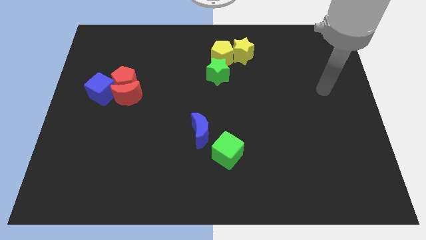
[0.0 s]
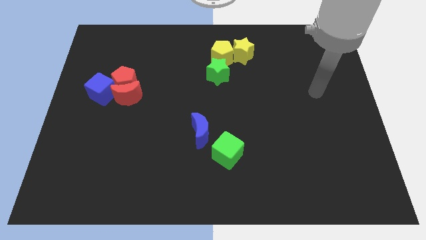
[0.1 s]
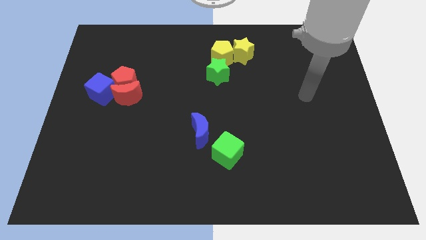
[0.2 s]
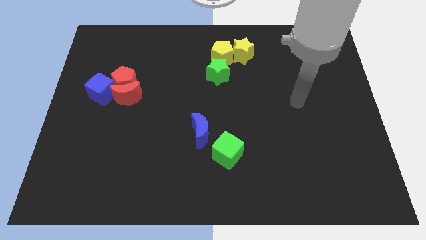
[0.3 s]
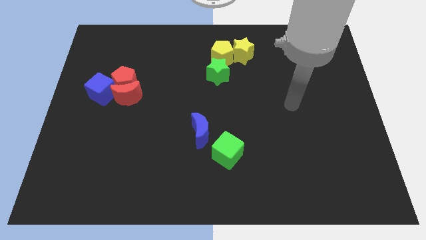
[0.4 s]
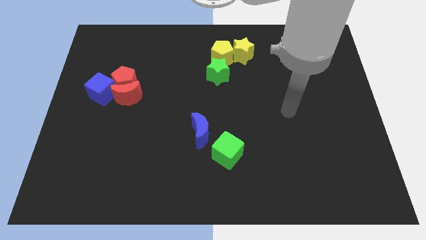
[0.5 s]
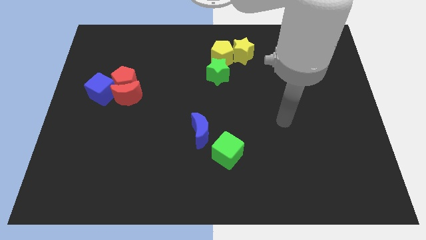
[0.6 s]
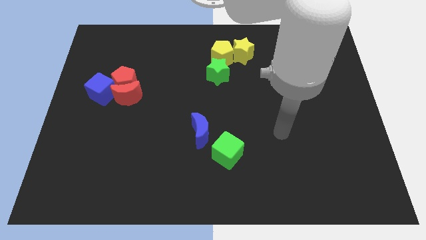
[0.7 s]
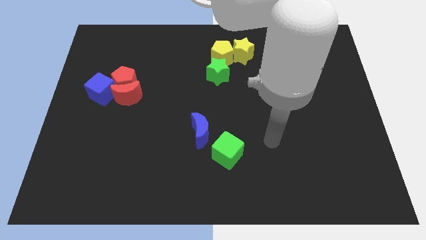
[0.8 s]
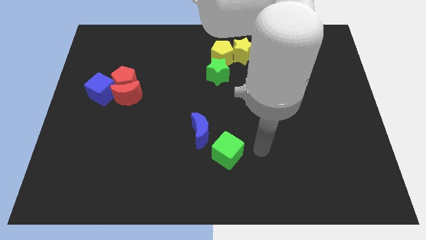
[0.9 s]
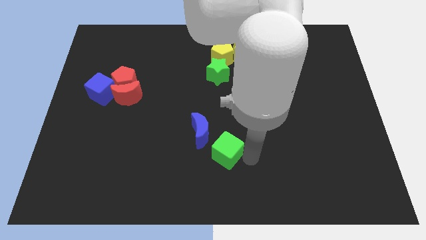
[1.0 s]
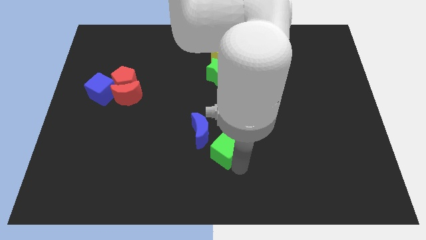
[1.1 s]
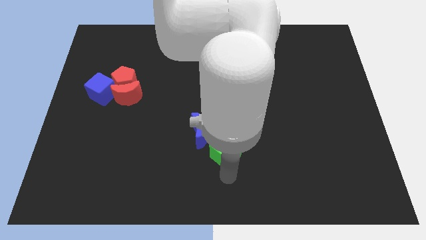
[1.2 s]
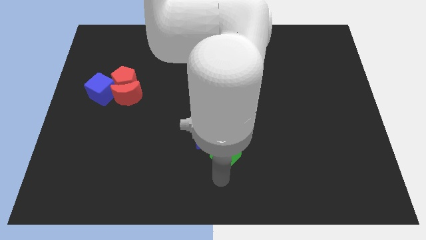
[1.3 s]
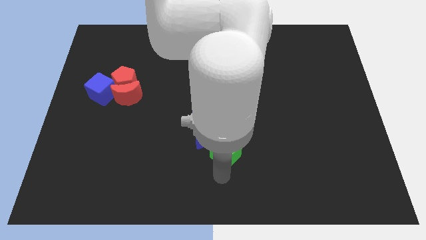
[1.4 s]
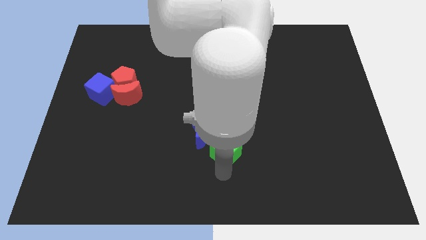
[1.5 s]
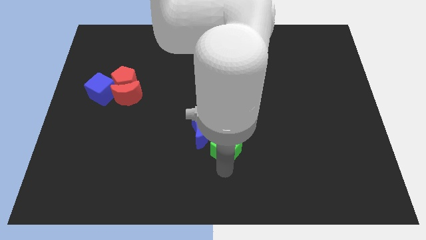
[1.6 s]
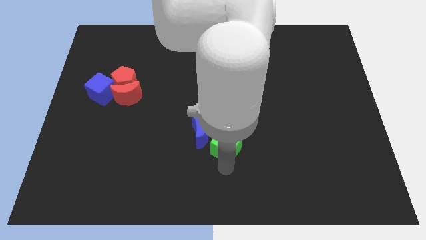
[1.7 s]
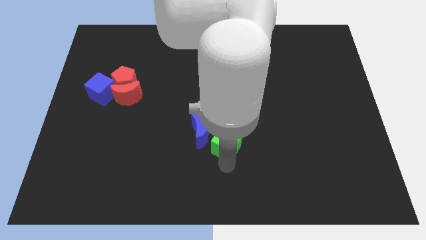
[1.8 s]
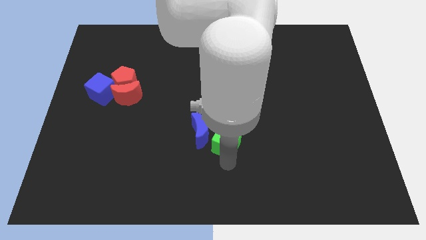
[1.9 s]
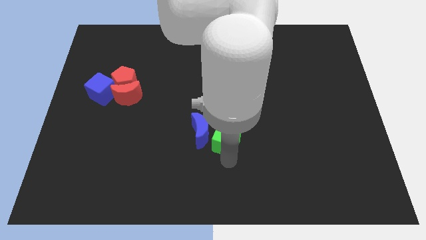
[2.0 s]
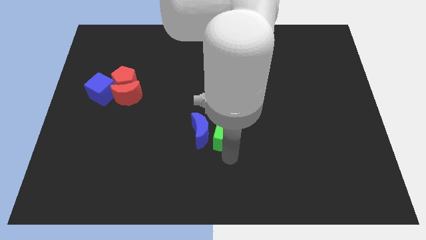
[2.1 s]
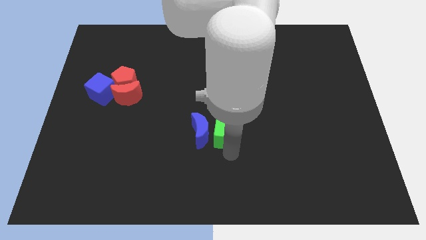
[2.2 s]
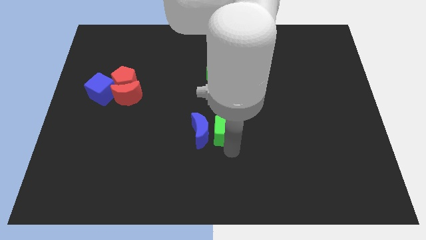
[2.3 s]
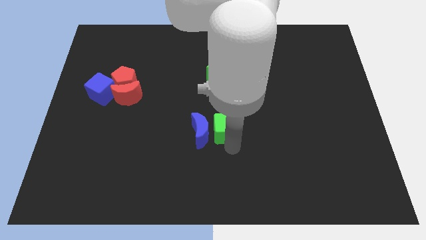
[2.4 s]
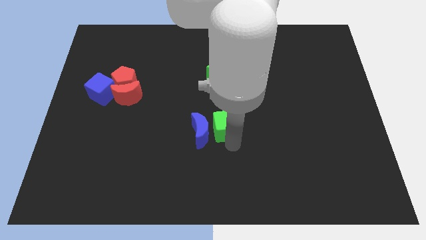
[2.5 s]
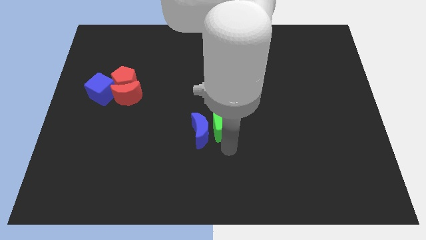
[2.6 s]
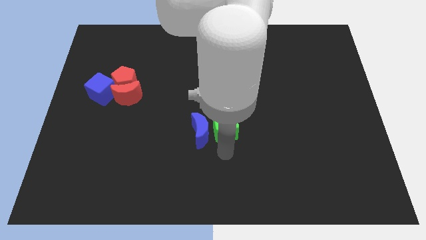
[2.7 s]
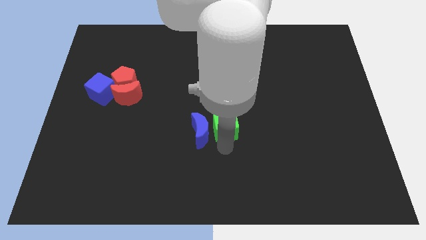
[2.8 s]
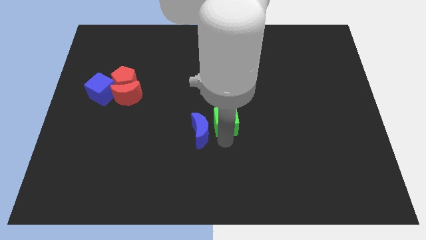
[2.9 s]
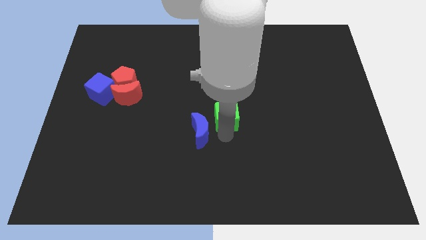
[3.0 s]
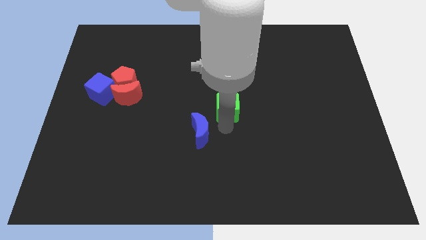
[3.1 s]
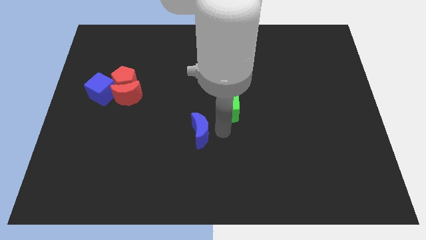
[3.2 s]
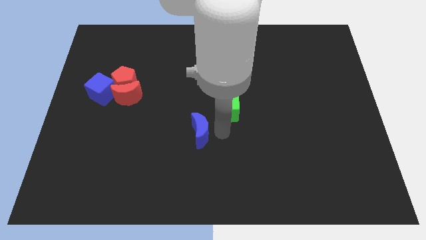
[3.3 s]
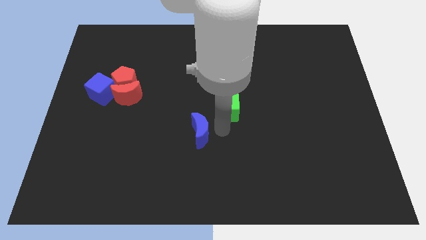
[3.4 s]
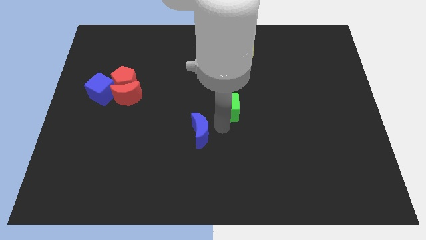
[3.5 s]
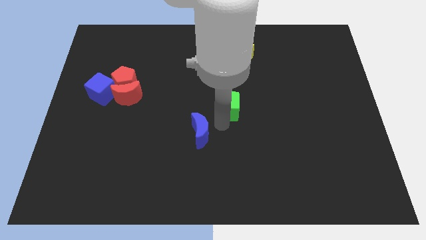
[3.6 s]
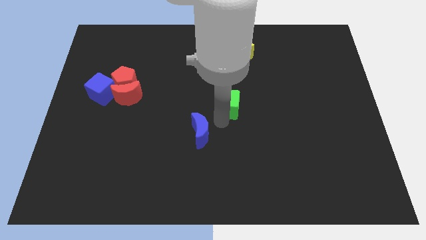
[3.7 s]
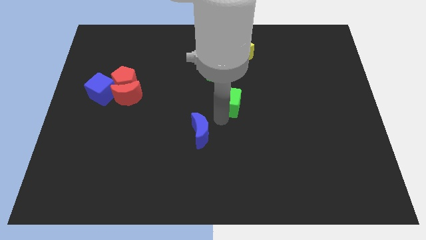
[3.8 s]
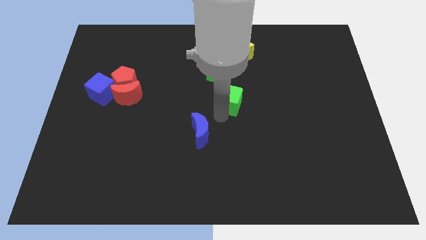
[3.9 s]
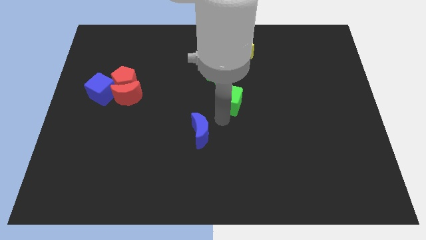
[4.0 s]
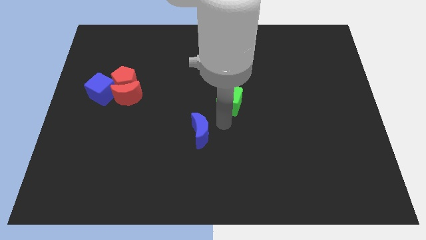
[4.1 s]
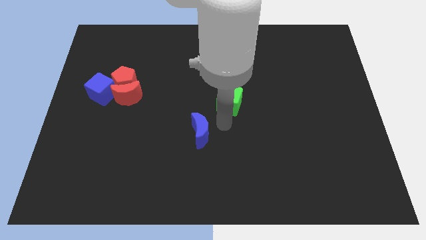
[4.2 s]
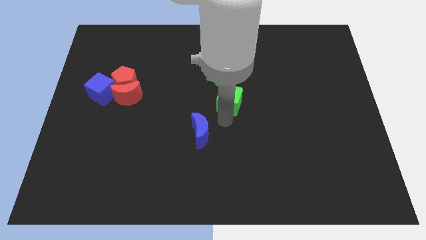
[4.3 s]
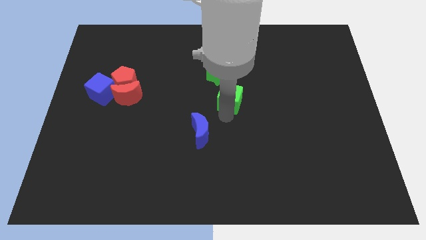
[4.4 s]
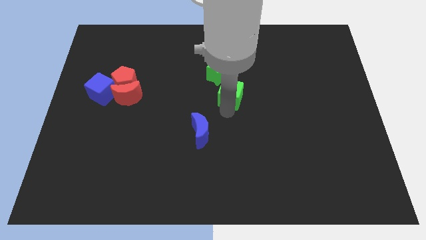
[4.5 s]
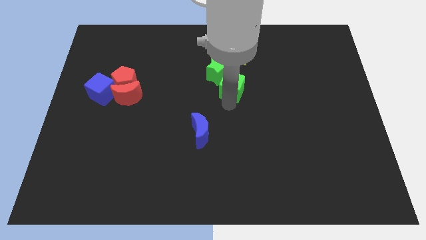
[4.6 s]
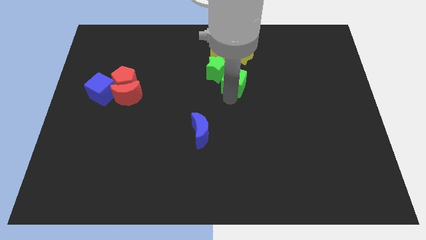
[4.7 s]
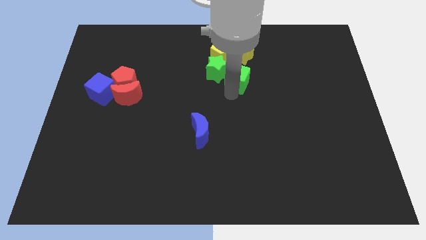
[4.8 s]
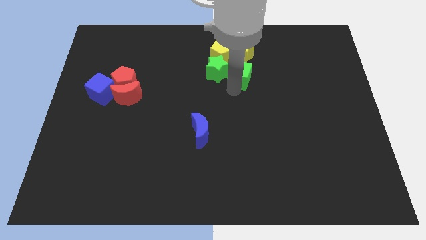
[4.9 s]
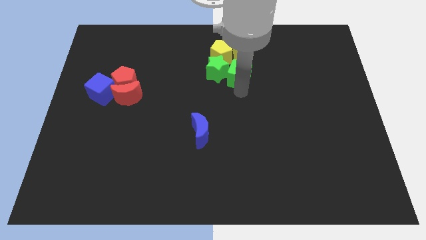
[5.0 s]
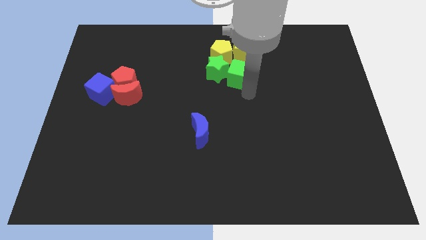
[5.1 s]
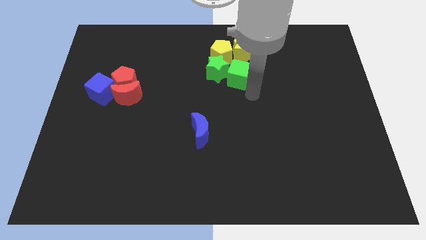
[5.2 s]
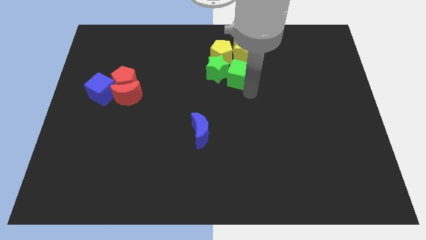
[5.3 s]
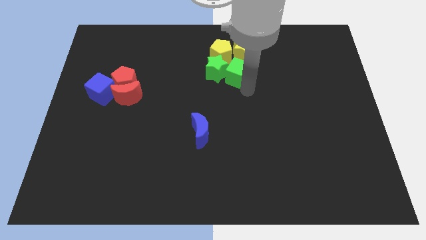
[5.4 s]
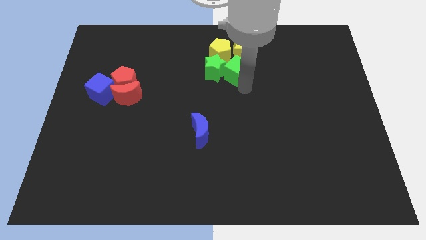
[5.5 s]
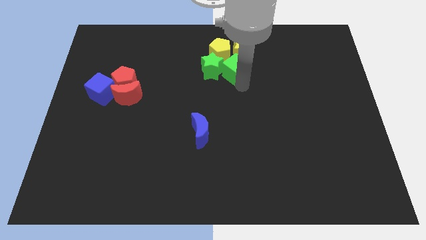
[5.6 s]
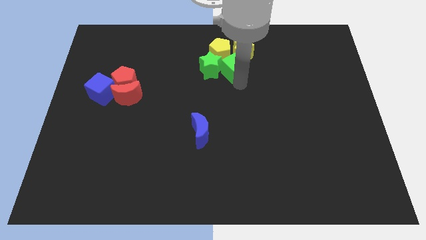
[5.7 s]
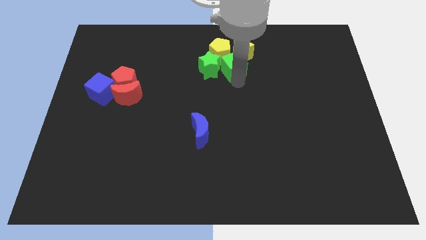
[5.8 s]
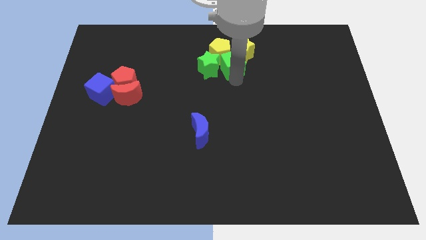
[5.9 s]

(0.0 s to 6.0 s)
slide the green cube next to the yellow pentagon
